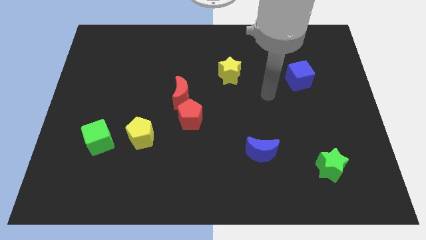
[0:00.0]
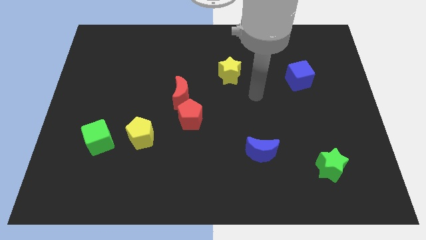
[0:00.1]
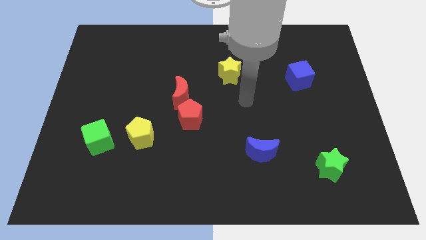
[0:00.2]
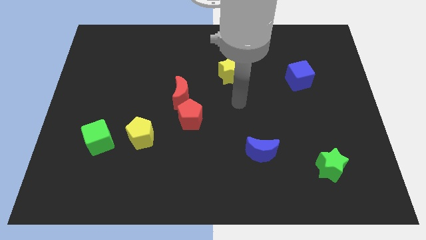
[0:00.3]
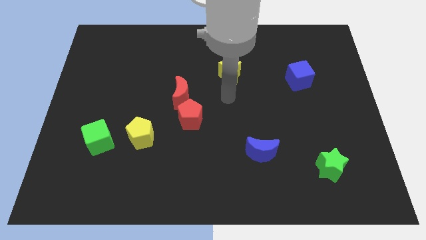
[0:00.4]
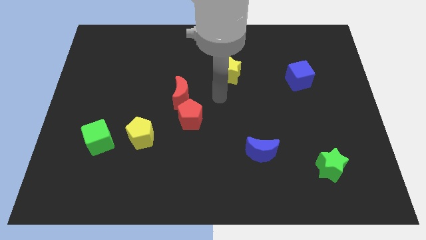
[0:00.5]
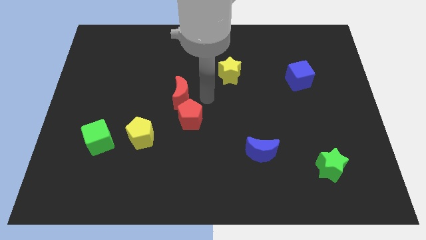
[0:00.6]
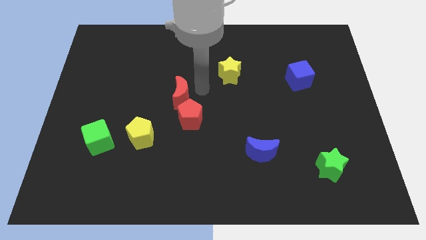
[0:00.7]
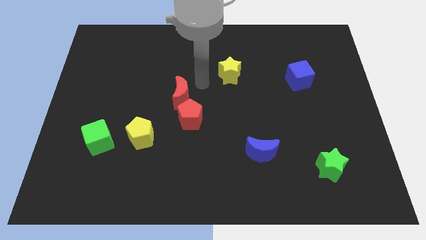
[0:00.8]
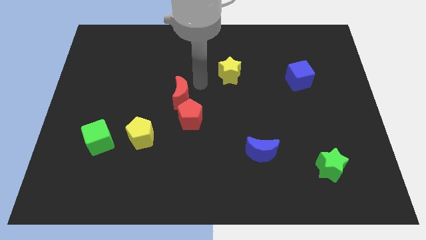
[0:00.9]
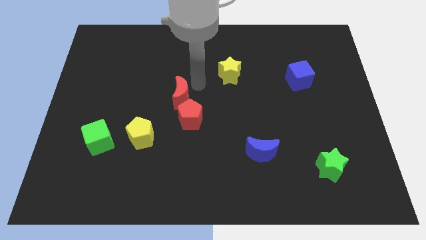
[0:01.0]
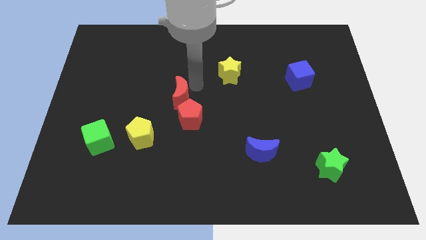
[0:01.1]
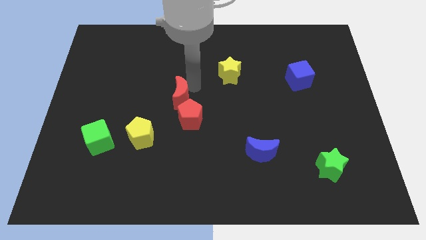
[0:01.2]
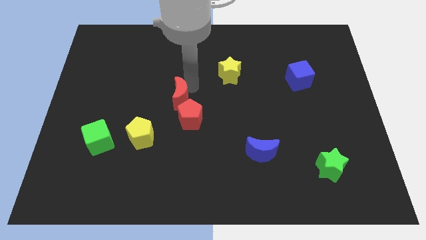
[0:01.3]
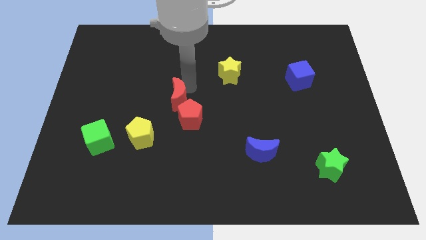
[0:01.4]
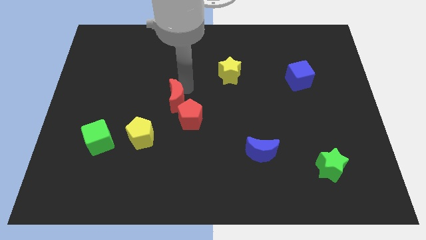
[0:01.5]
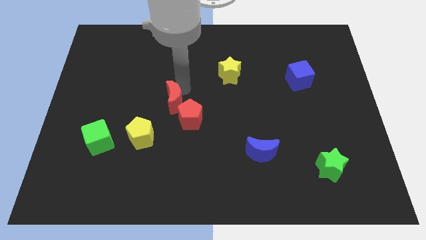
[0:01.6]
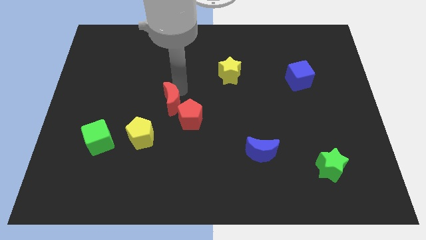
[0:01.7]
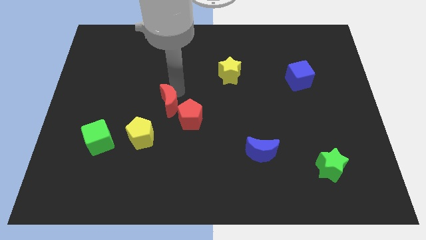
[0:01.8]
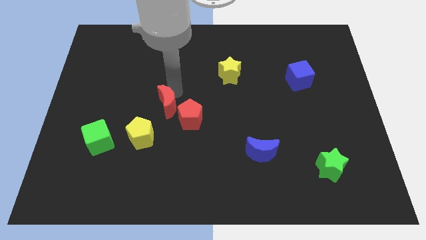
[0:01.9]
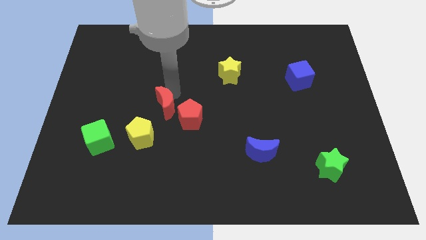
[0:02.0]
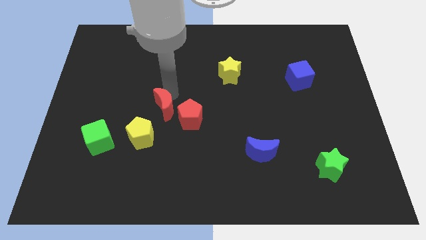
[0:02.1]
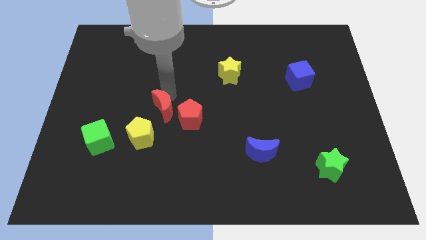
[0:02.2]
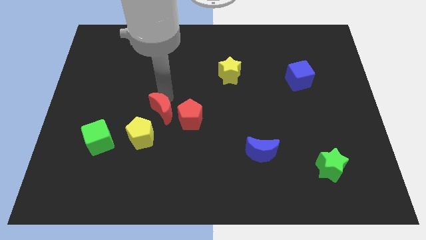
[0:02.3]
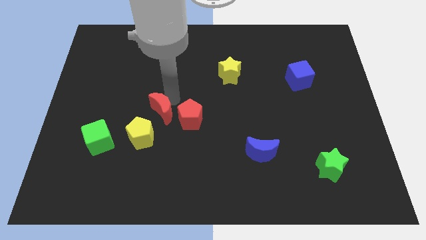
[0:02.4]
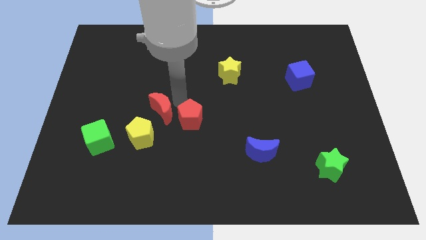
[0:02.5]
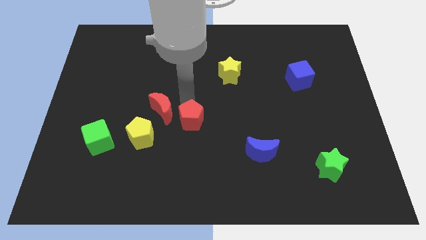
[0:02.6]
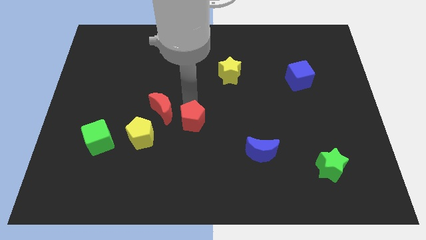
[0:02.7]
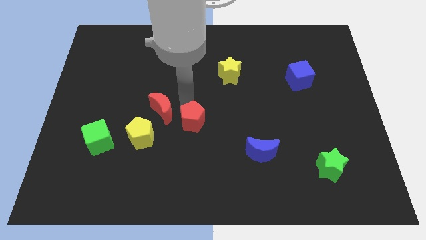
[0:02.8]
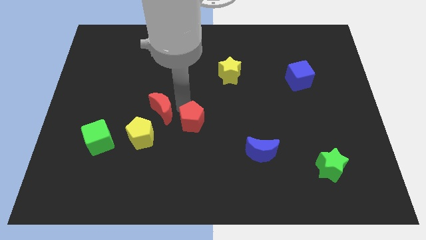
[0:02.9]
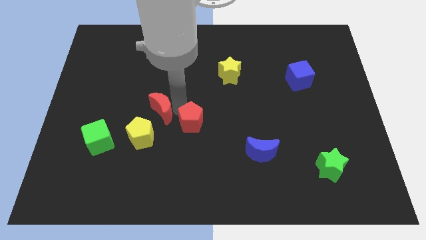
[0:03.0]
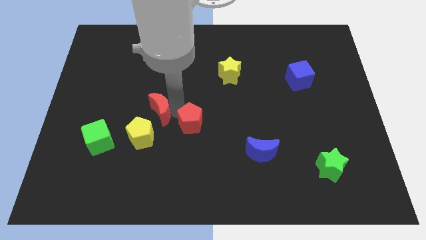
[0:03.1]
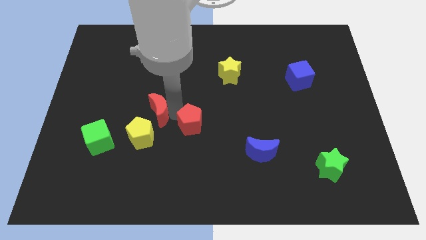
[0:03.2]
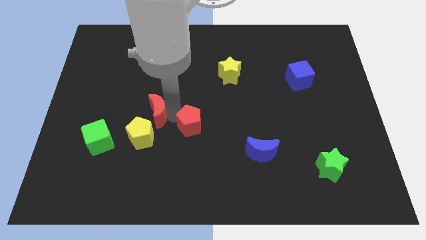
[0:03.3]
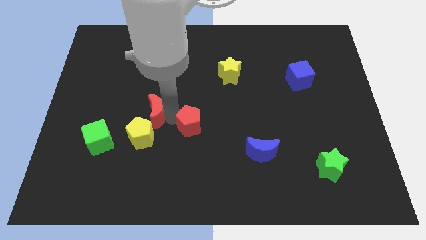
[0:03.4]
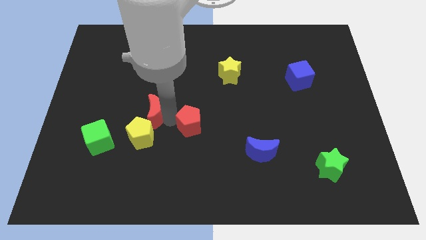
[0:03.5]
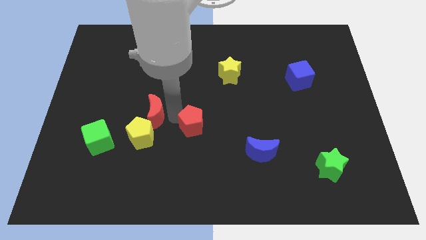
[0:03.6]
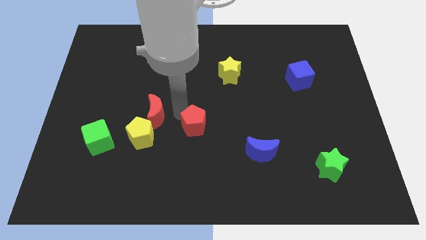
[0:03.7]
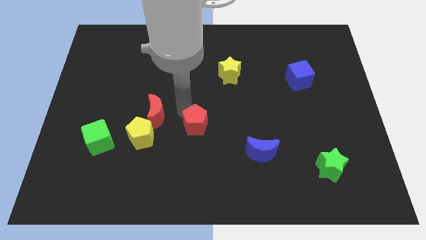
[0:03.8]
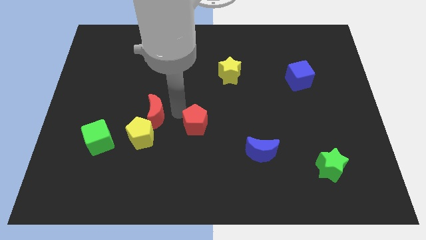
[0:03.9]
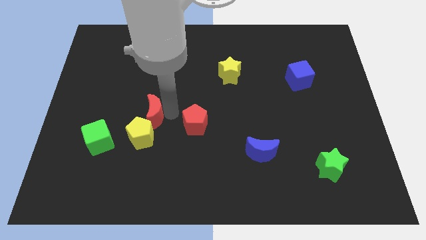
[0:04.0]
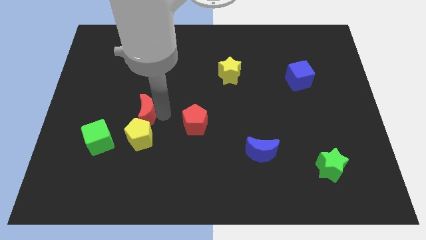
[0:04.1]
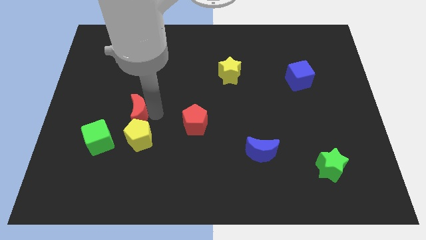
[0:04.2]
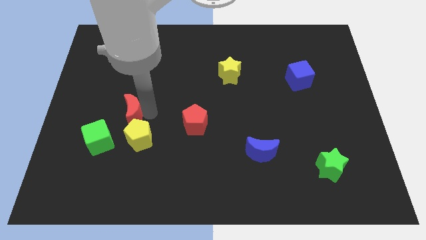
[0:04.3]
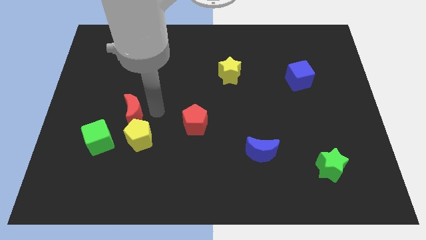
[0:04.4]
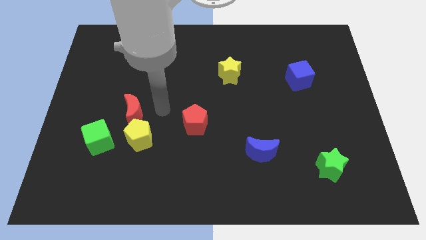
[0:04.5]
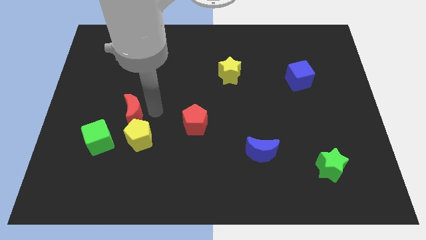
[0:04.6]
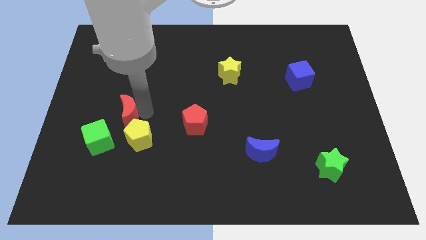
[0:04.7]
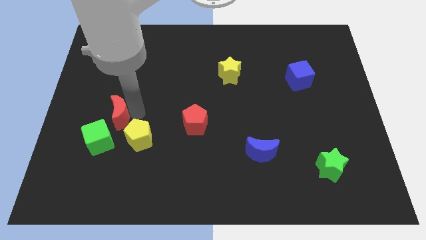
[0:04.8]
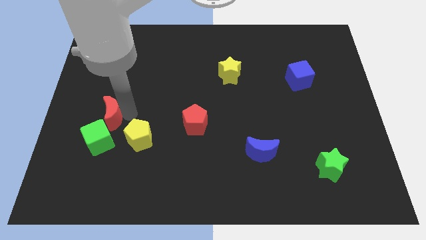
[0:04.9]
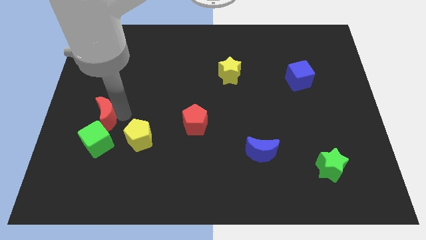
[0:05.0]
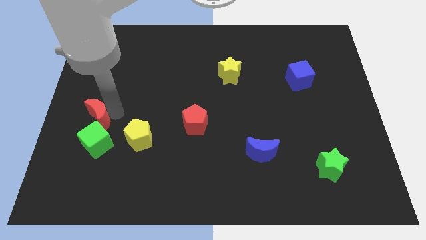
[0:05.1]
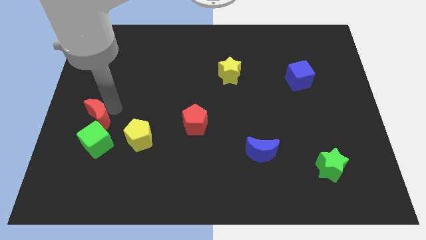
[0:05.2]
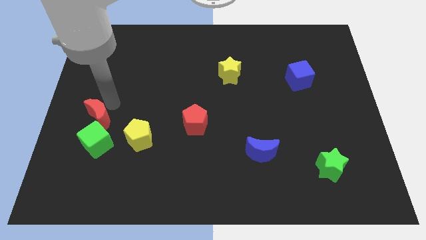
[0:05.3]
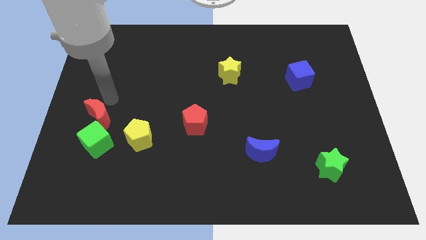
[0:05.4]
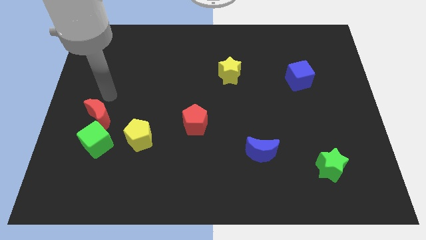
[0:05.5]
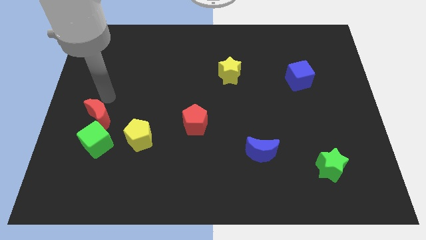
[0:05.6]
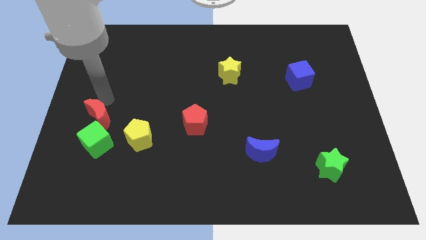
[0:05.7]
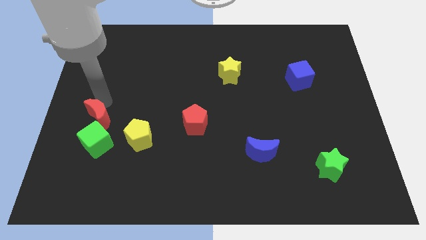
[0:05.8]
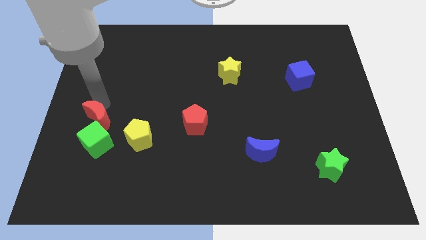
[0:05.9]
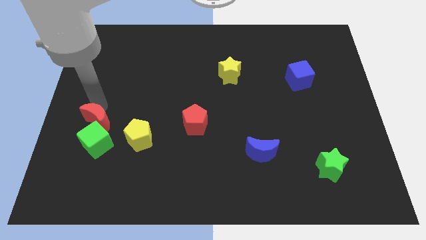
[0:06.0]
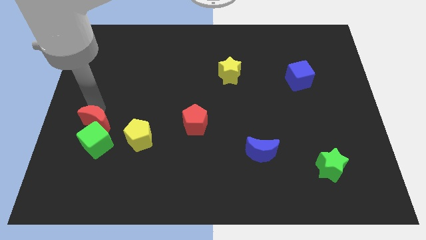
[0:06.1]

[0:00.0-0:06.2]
move the red moon just left of the yellow pentagon

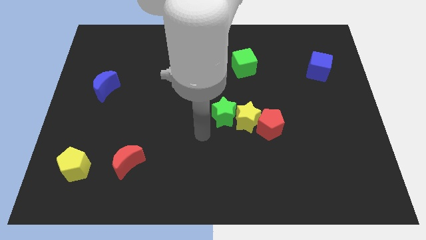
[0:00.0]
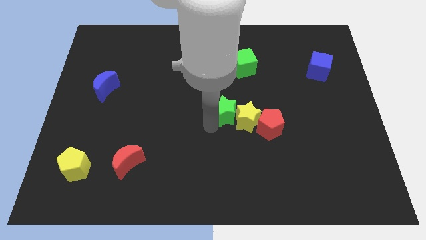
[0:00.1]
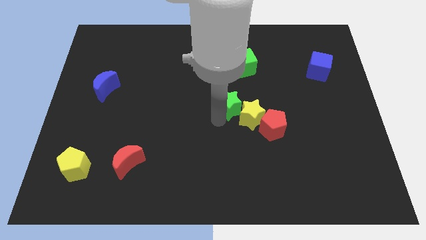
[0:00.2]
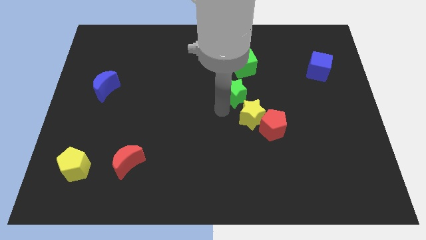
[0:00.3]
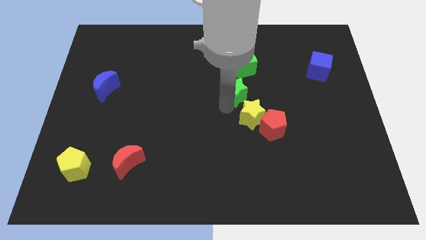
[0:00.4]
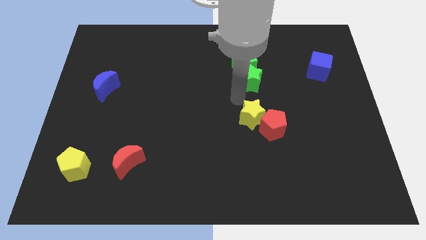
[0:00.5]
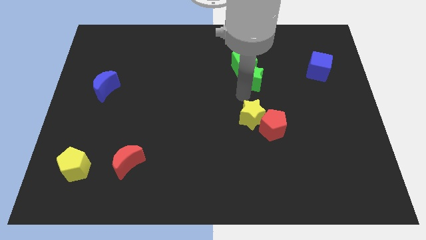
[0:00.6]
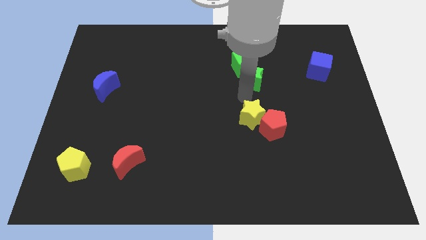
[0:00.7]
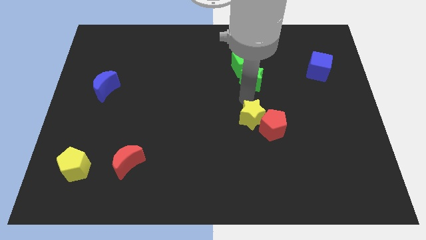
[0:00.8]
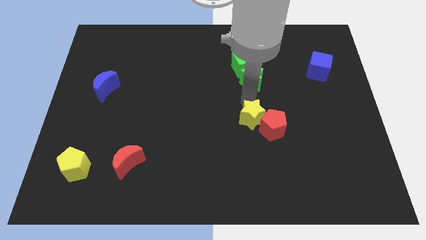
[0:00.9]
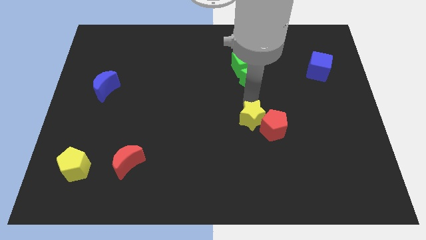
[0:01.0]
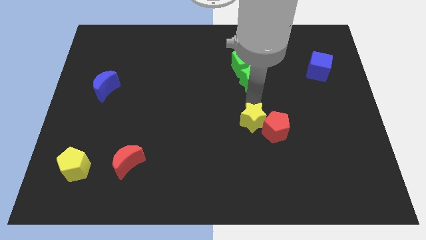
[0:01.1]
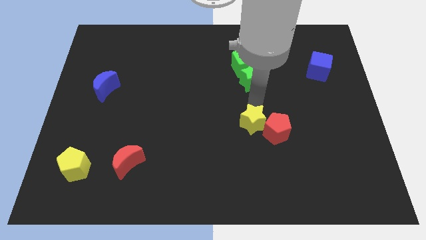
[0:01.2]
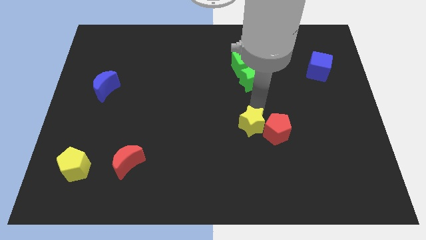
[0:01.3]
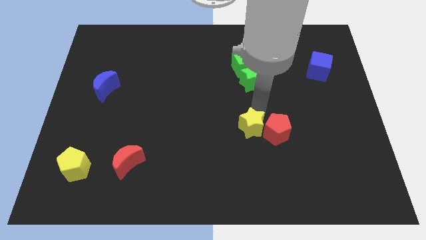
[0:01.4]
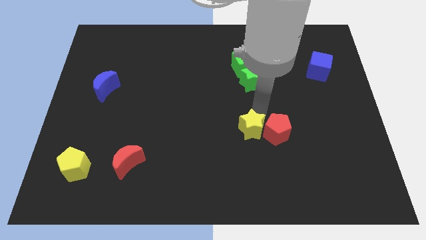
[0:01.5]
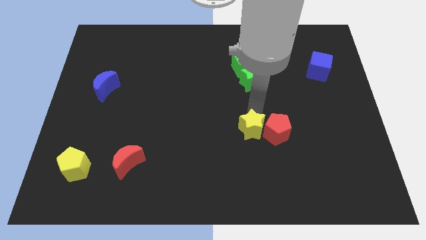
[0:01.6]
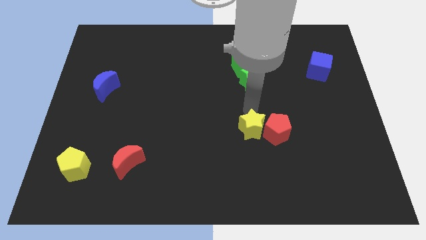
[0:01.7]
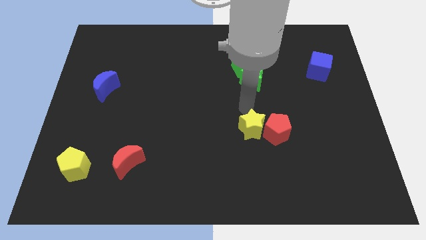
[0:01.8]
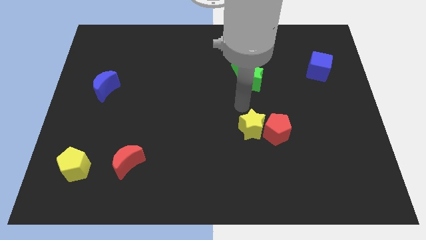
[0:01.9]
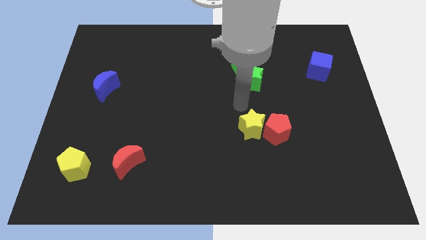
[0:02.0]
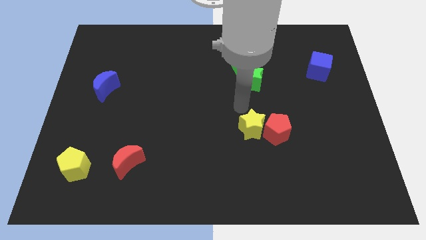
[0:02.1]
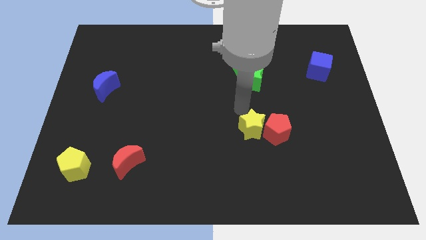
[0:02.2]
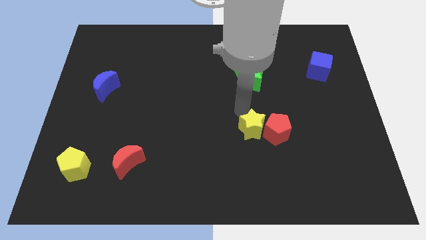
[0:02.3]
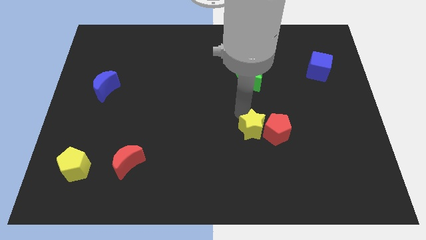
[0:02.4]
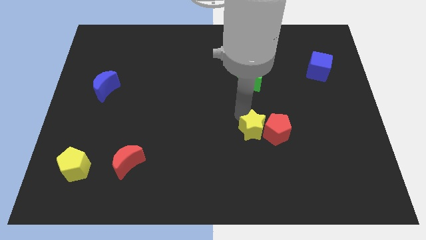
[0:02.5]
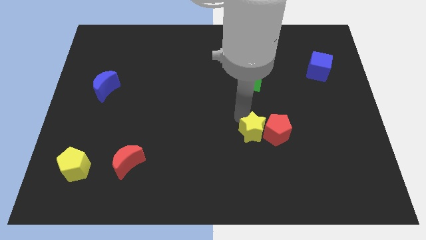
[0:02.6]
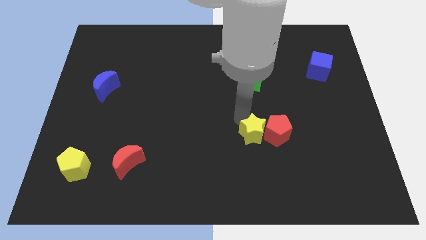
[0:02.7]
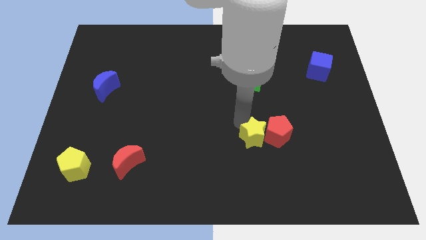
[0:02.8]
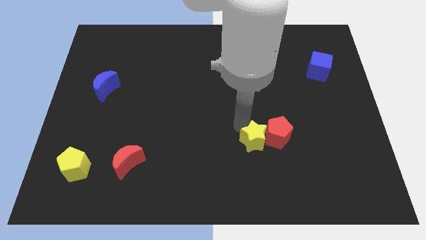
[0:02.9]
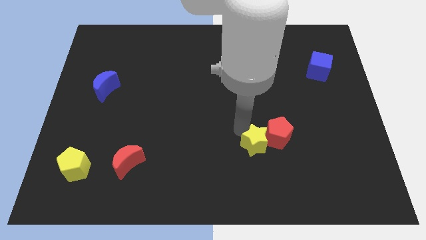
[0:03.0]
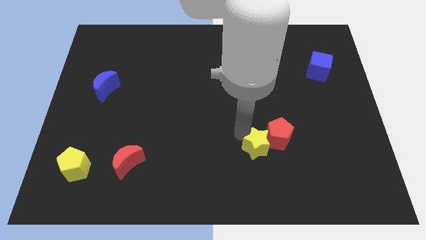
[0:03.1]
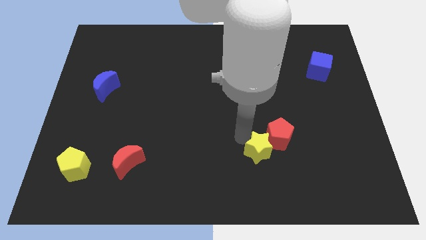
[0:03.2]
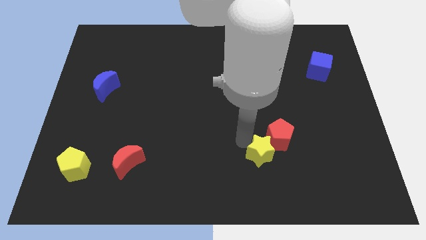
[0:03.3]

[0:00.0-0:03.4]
put the yellow star to the bottom side of the red pentagon
